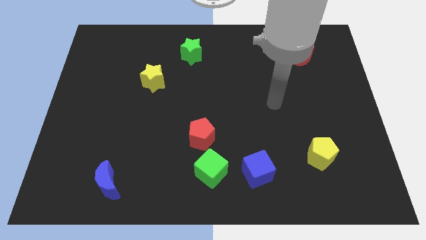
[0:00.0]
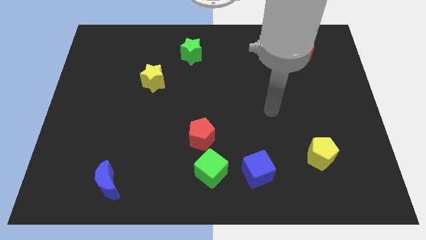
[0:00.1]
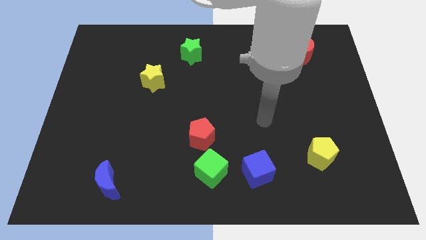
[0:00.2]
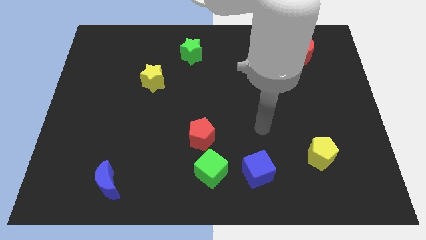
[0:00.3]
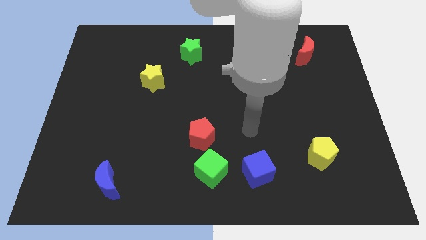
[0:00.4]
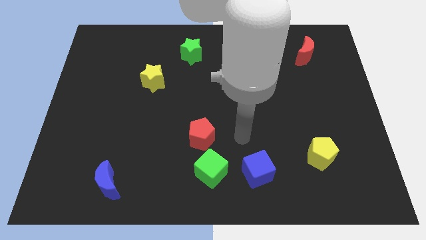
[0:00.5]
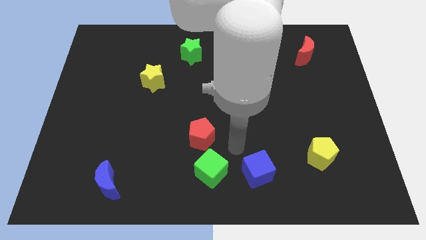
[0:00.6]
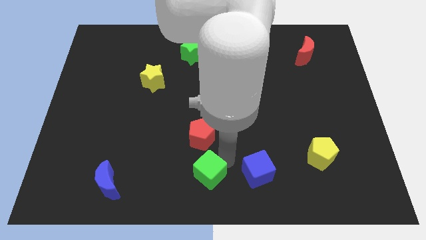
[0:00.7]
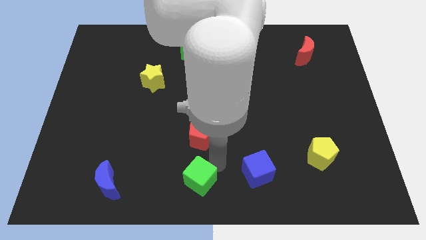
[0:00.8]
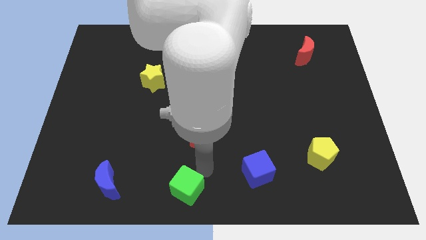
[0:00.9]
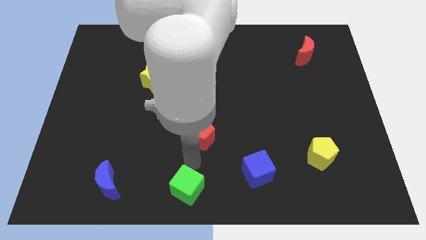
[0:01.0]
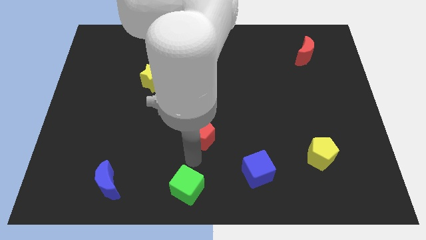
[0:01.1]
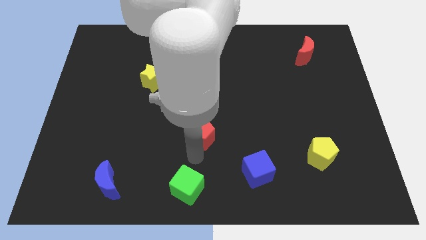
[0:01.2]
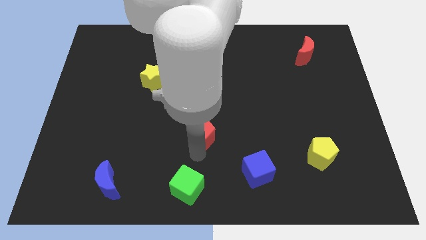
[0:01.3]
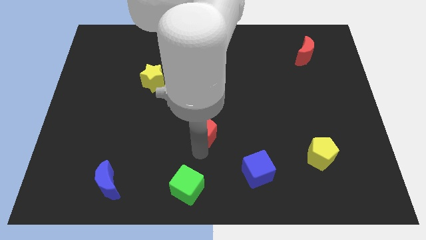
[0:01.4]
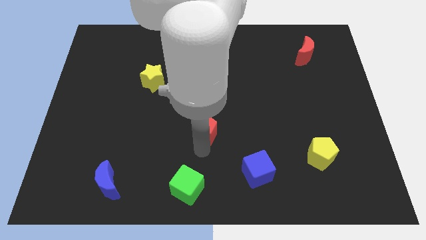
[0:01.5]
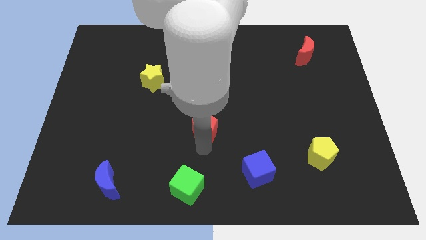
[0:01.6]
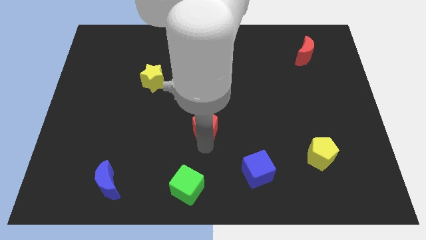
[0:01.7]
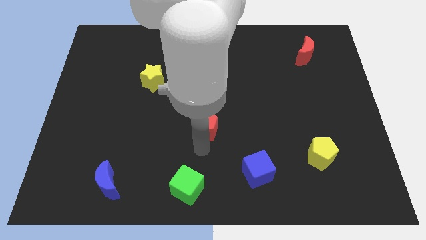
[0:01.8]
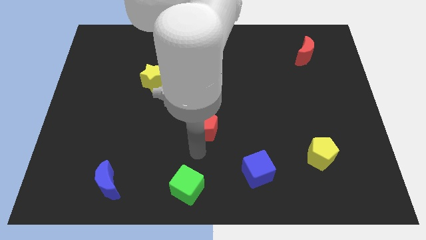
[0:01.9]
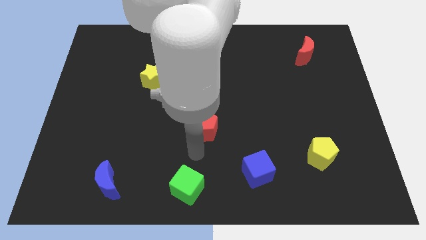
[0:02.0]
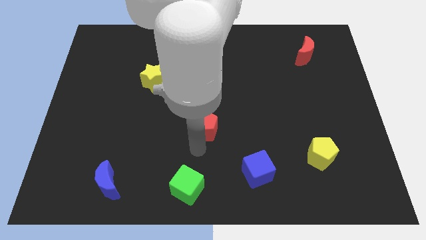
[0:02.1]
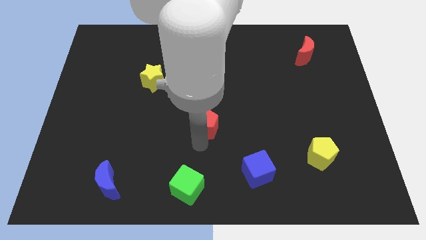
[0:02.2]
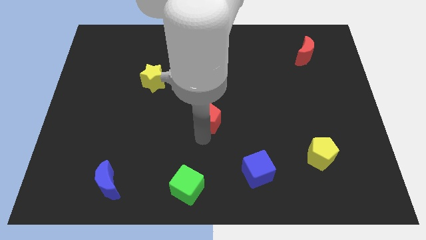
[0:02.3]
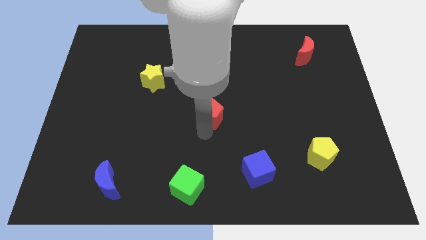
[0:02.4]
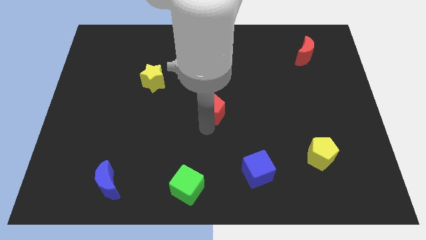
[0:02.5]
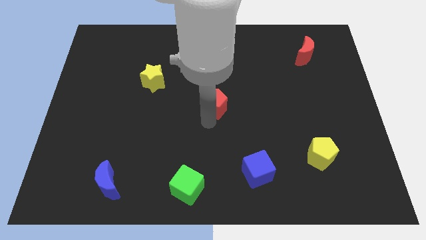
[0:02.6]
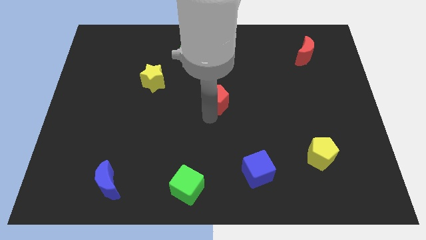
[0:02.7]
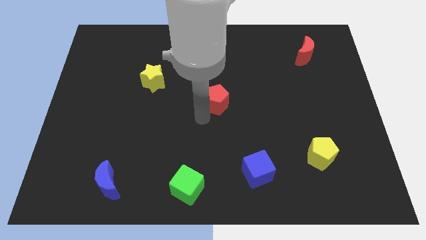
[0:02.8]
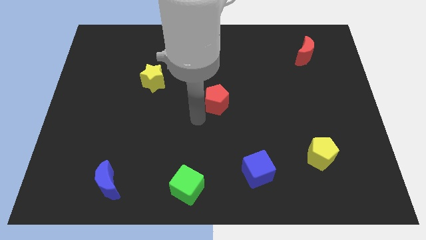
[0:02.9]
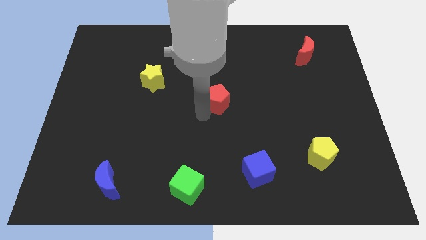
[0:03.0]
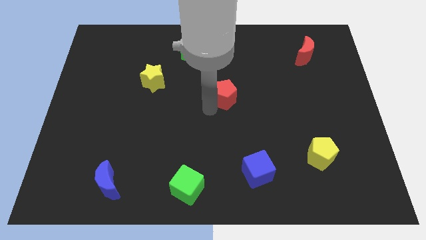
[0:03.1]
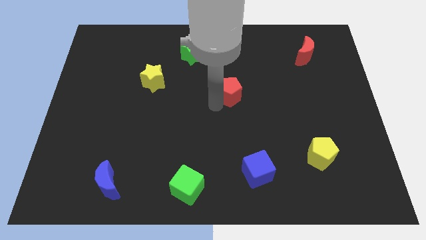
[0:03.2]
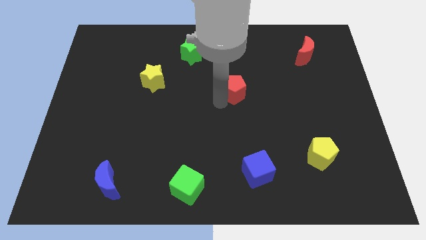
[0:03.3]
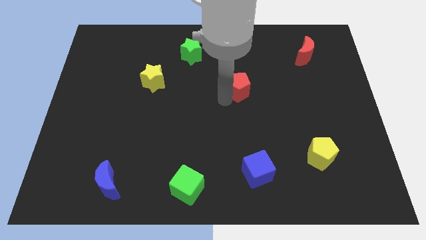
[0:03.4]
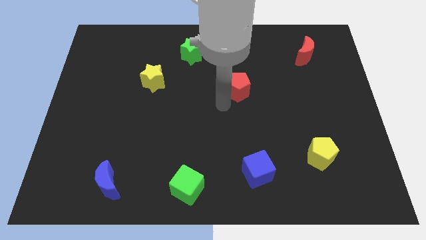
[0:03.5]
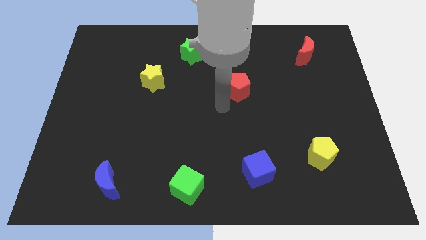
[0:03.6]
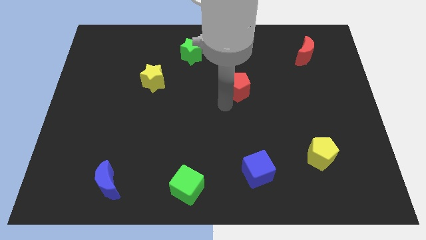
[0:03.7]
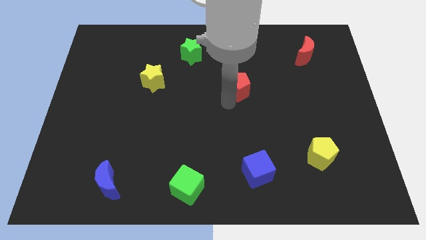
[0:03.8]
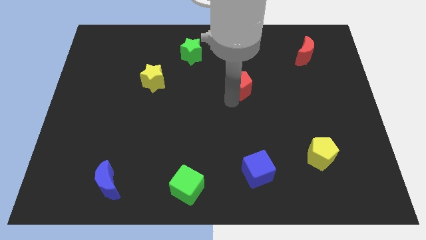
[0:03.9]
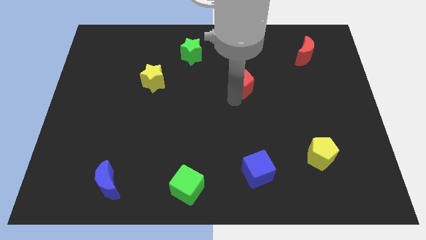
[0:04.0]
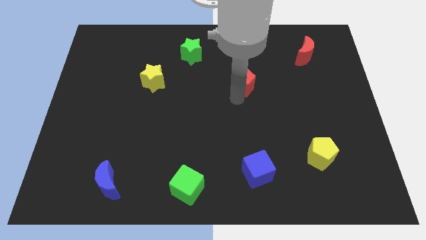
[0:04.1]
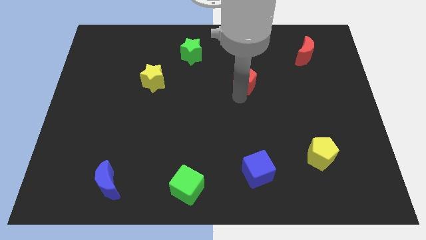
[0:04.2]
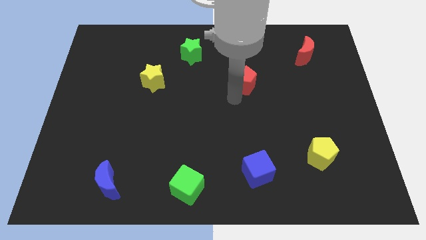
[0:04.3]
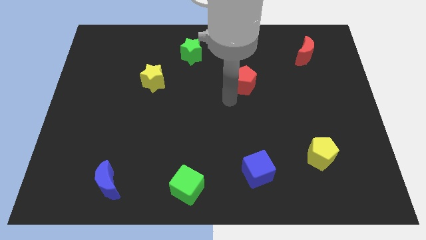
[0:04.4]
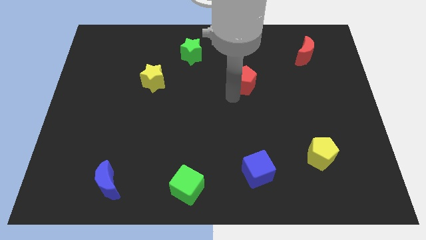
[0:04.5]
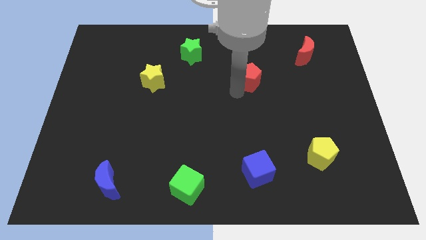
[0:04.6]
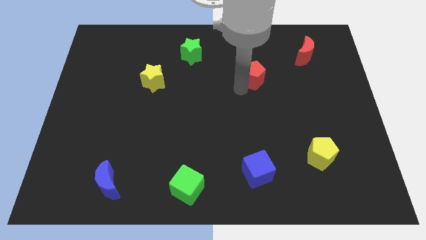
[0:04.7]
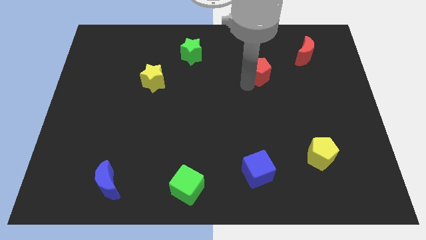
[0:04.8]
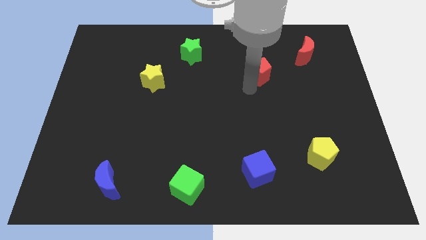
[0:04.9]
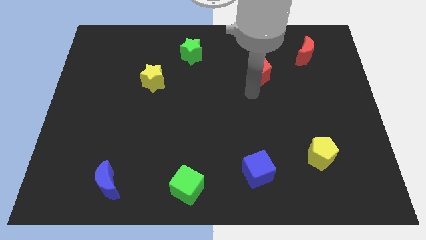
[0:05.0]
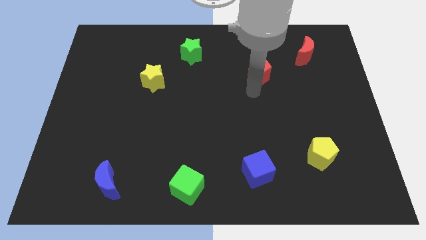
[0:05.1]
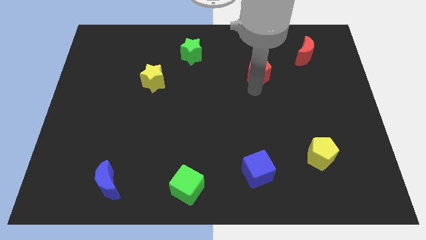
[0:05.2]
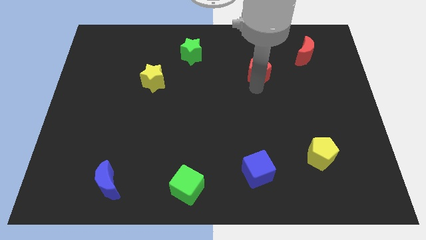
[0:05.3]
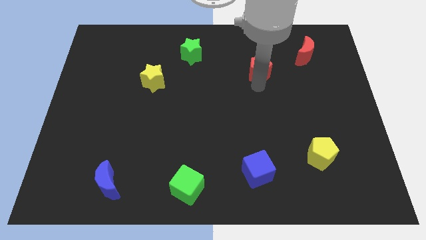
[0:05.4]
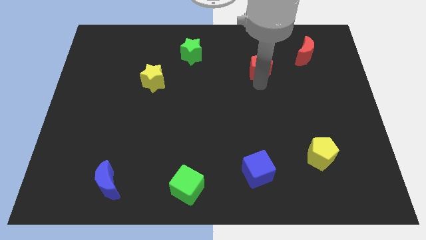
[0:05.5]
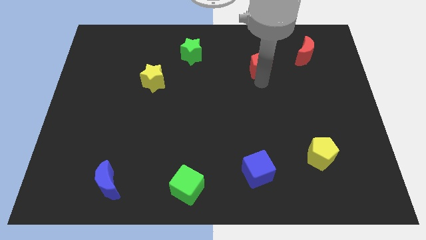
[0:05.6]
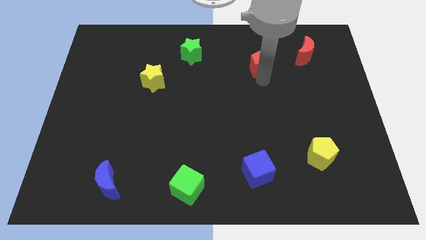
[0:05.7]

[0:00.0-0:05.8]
slide the red pentagon to the left side of the red moon

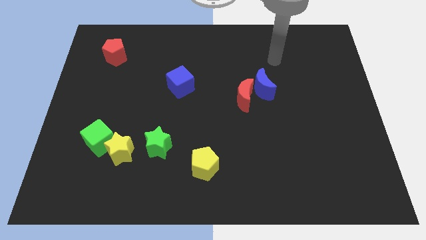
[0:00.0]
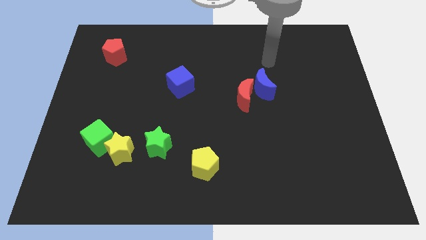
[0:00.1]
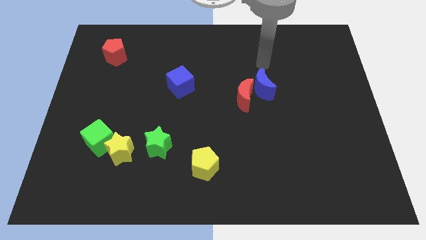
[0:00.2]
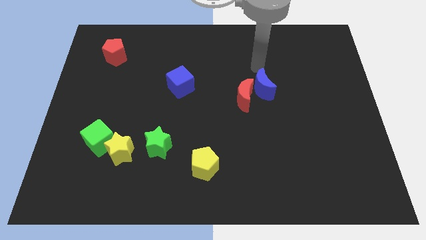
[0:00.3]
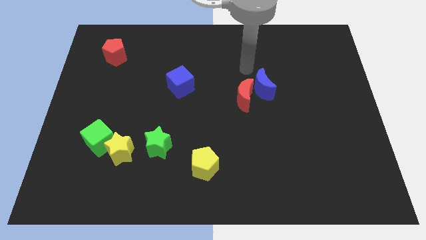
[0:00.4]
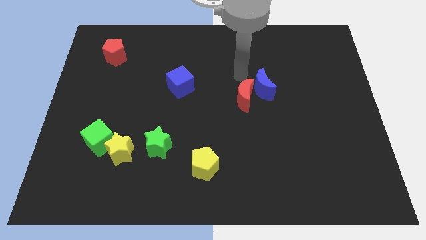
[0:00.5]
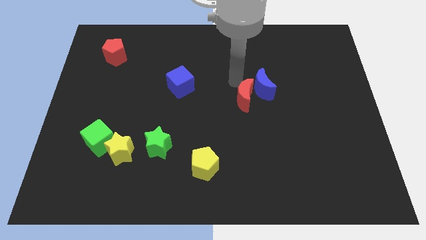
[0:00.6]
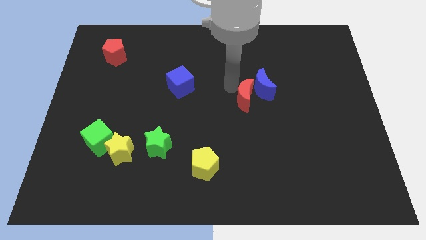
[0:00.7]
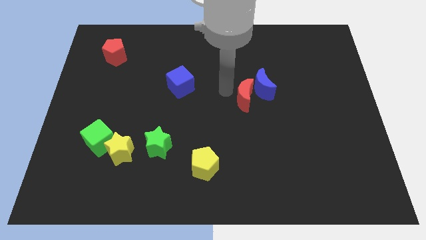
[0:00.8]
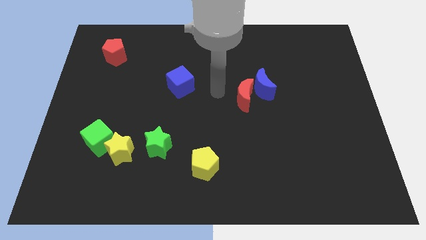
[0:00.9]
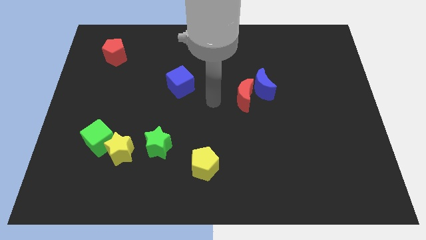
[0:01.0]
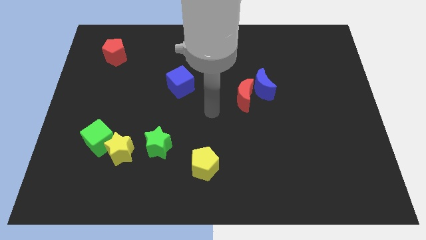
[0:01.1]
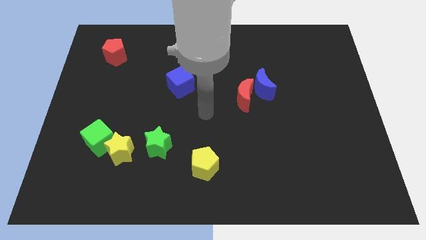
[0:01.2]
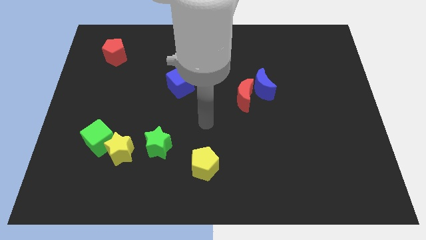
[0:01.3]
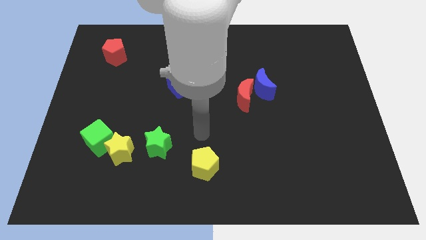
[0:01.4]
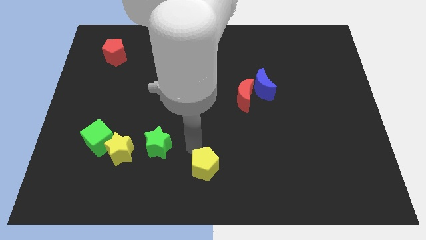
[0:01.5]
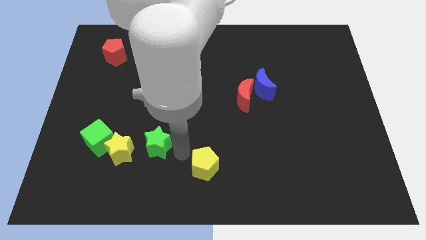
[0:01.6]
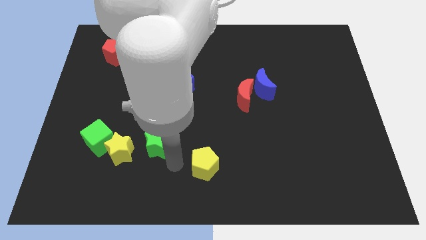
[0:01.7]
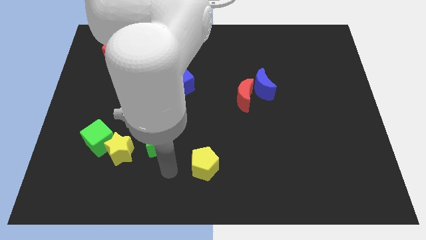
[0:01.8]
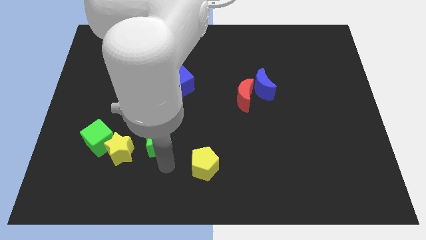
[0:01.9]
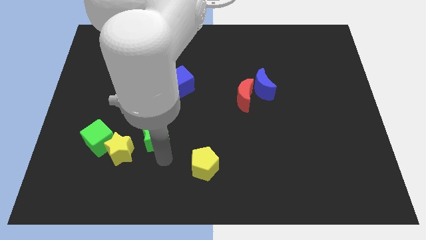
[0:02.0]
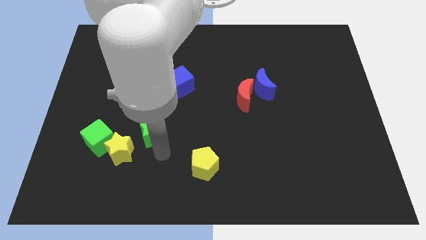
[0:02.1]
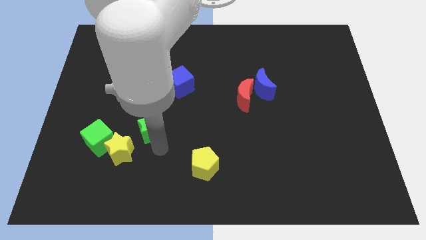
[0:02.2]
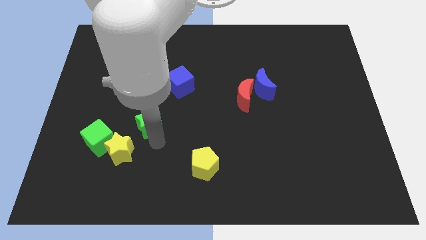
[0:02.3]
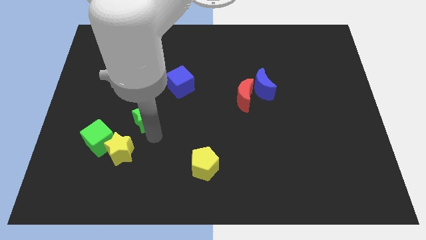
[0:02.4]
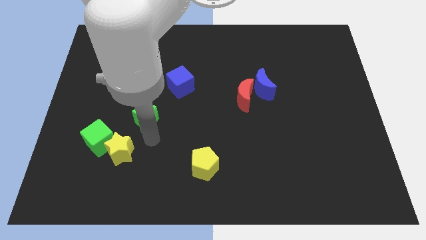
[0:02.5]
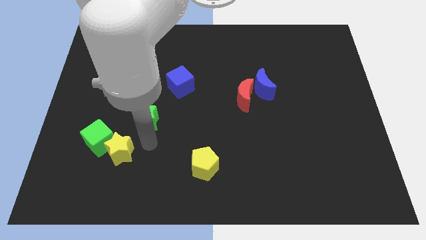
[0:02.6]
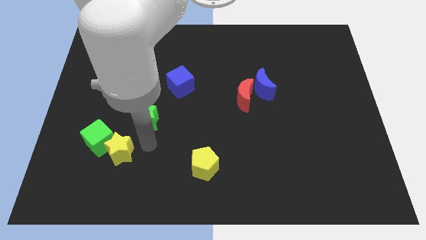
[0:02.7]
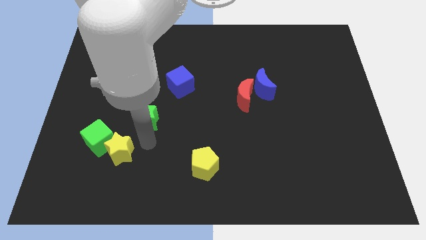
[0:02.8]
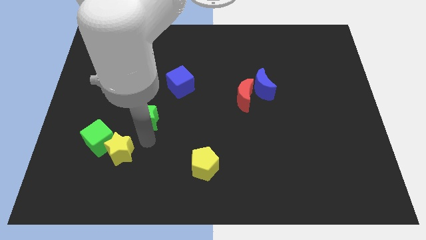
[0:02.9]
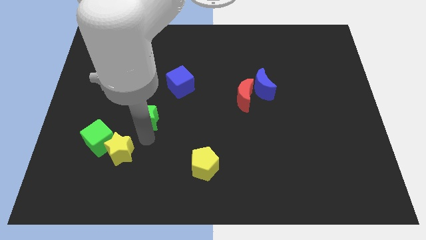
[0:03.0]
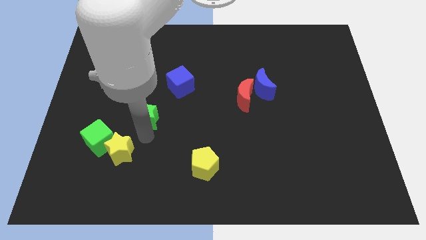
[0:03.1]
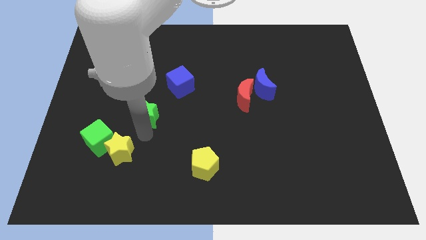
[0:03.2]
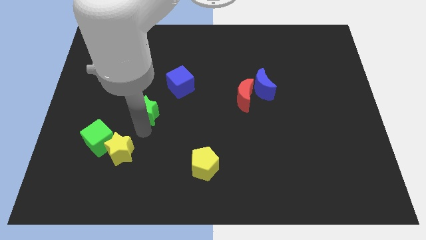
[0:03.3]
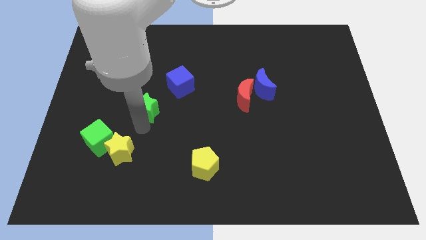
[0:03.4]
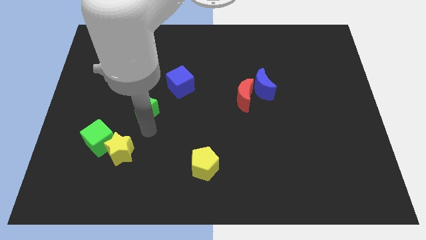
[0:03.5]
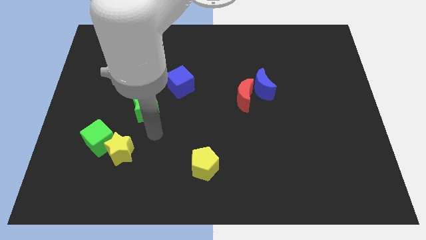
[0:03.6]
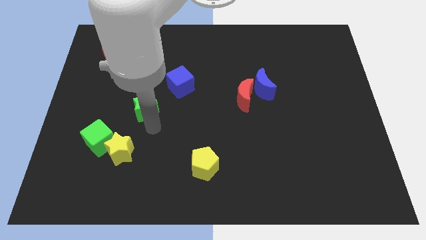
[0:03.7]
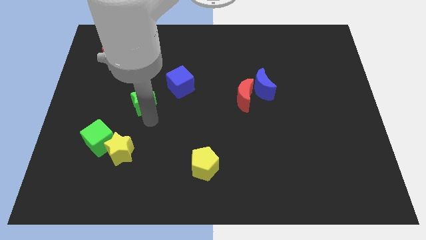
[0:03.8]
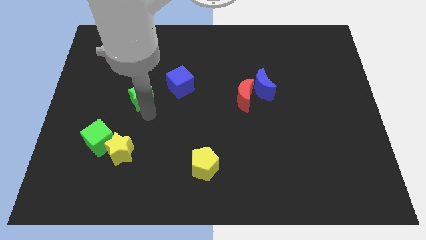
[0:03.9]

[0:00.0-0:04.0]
push the green star left of the blue cube
